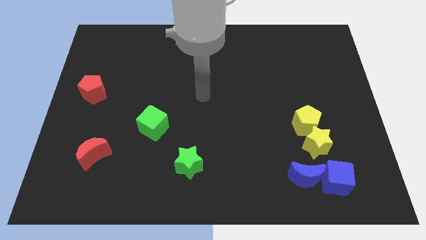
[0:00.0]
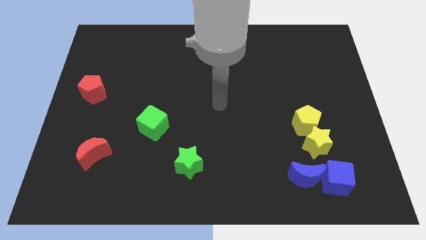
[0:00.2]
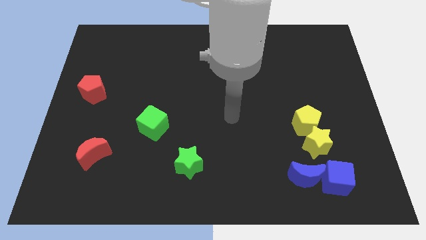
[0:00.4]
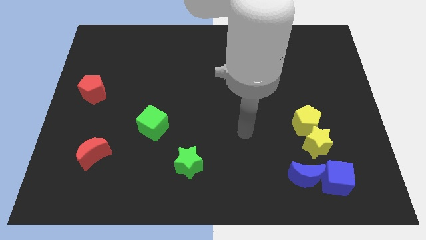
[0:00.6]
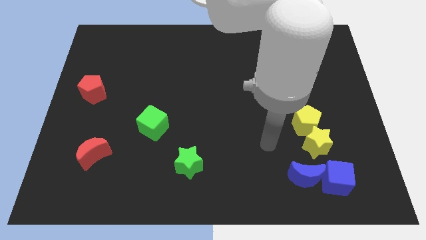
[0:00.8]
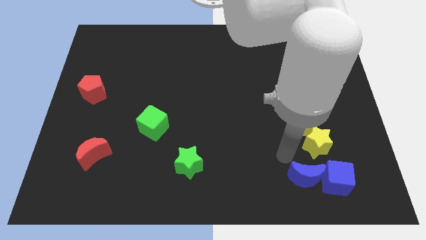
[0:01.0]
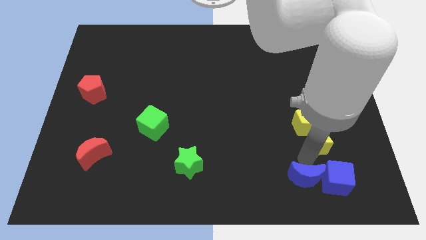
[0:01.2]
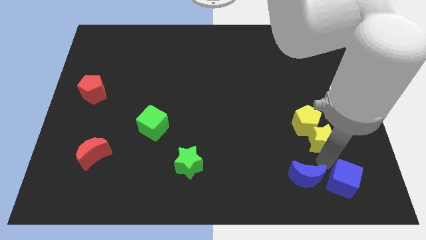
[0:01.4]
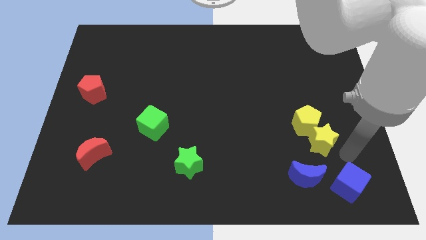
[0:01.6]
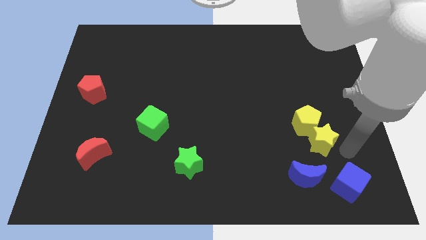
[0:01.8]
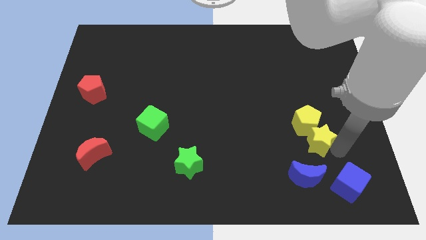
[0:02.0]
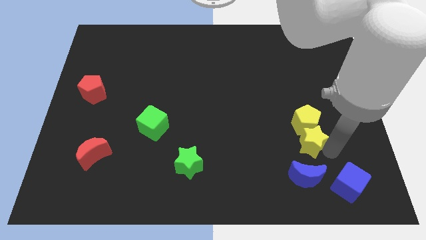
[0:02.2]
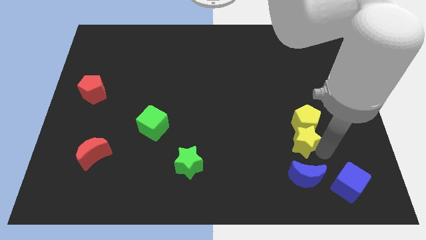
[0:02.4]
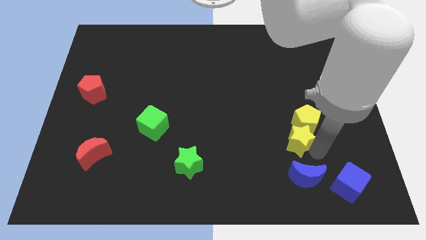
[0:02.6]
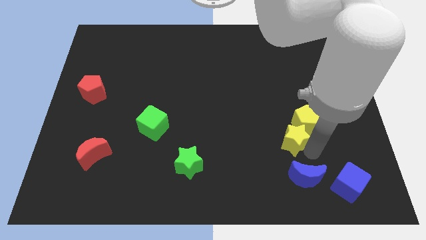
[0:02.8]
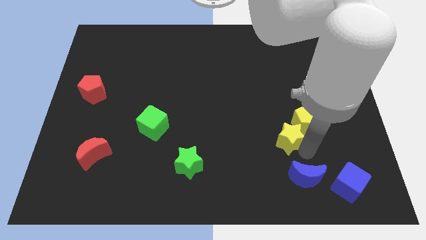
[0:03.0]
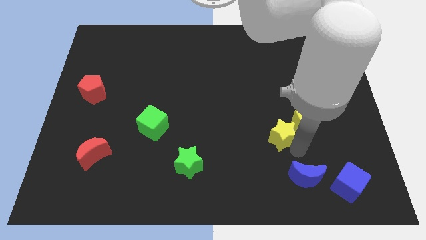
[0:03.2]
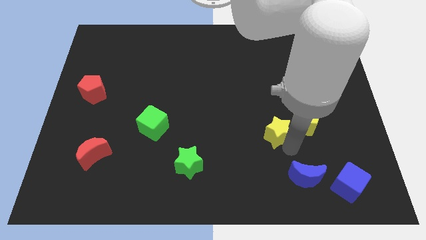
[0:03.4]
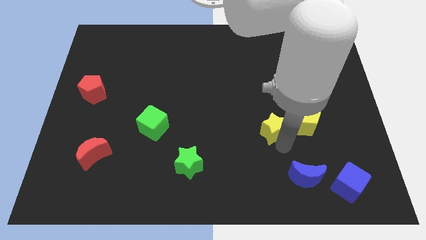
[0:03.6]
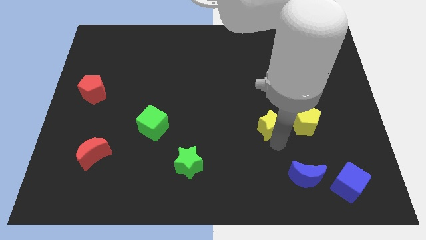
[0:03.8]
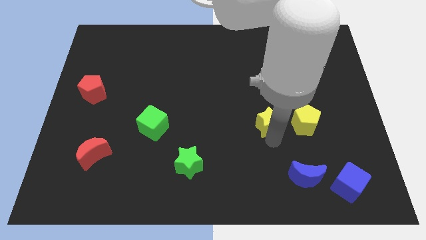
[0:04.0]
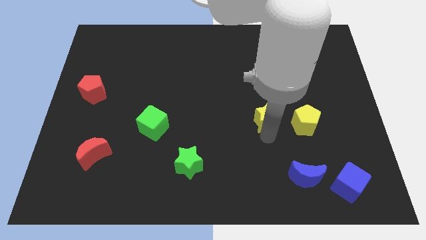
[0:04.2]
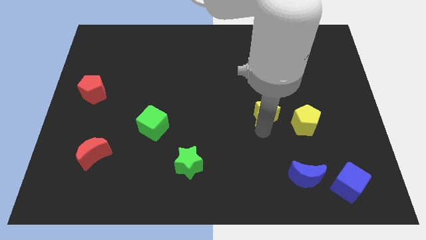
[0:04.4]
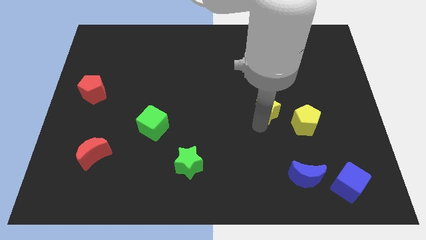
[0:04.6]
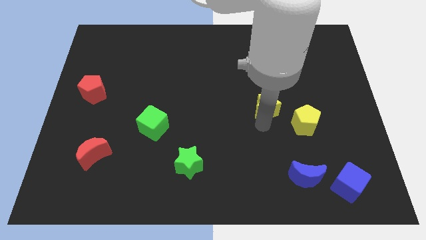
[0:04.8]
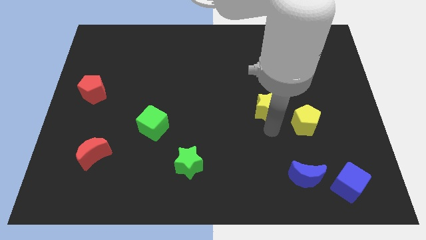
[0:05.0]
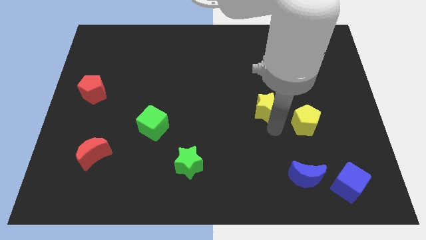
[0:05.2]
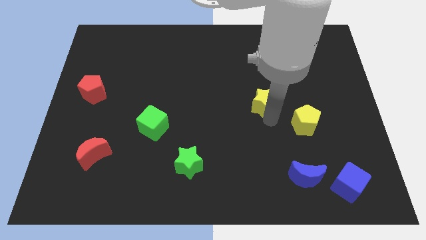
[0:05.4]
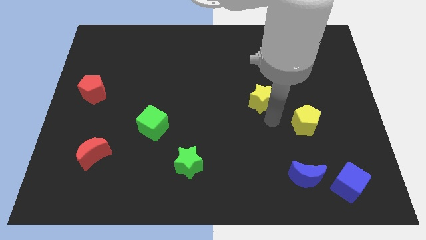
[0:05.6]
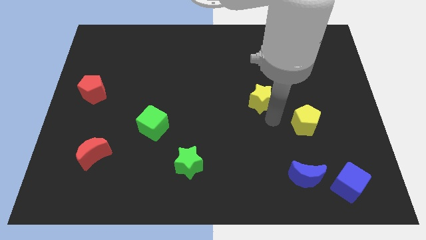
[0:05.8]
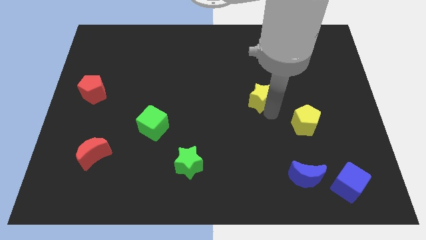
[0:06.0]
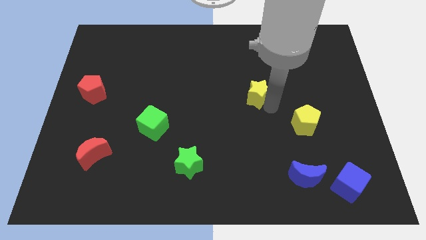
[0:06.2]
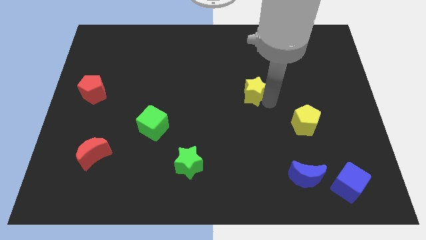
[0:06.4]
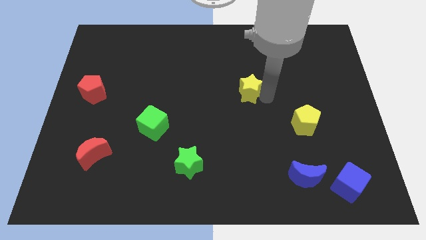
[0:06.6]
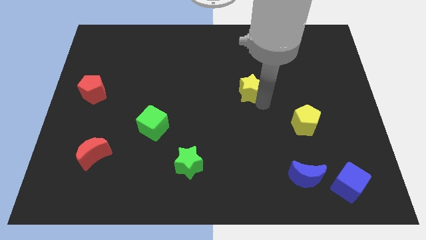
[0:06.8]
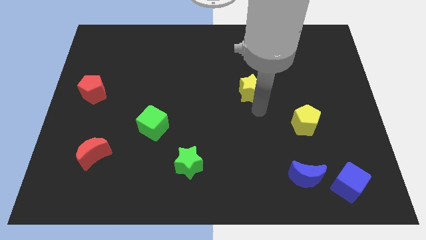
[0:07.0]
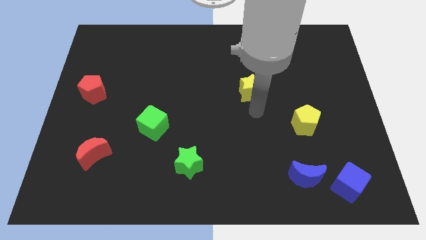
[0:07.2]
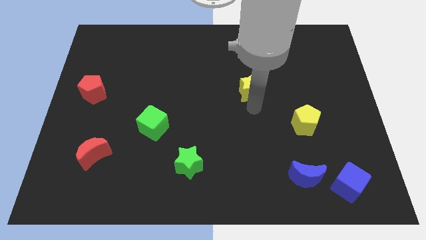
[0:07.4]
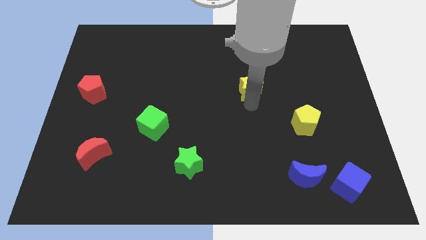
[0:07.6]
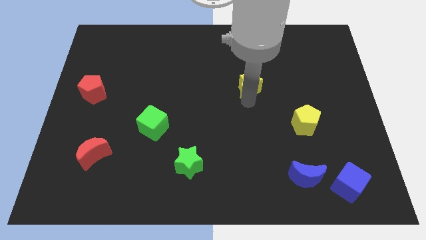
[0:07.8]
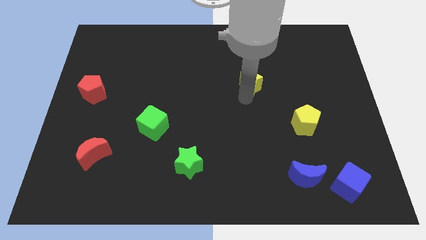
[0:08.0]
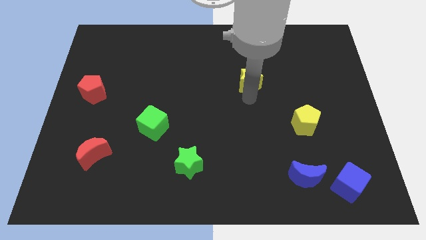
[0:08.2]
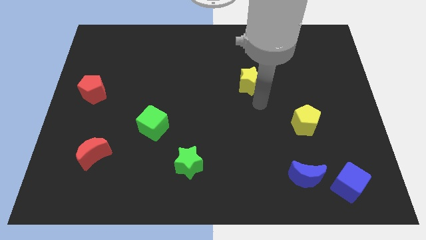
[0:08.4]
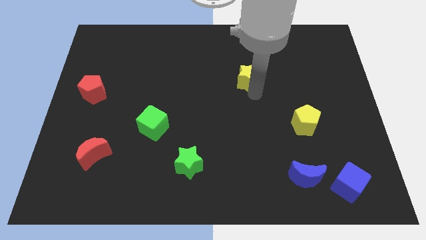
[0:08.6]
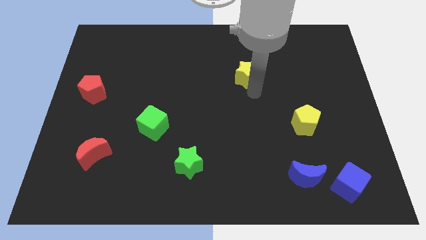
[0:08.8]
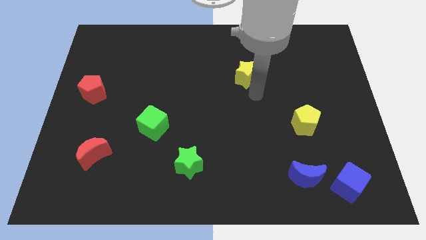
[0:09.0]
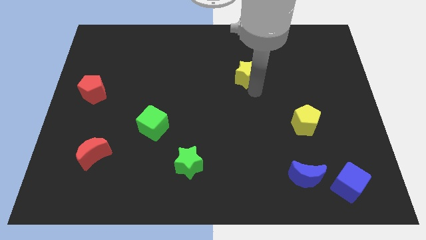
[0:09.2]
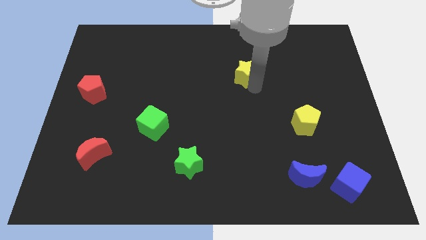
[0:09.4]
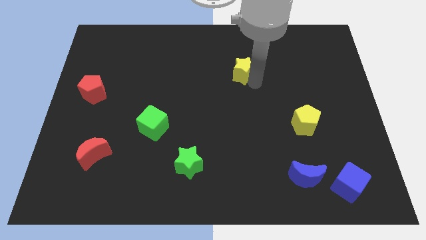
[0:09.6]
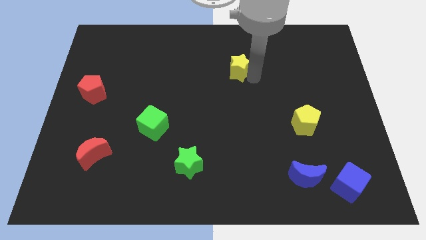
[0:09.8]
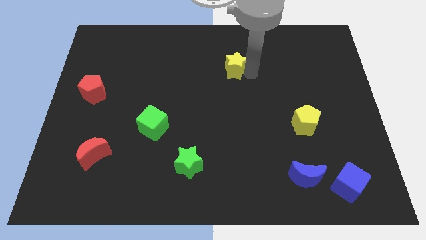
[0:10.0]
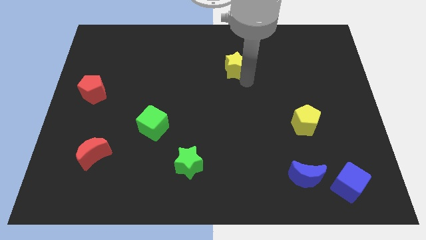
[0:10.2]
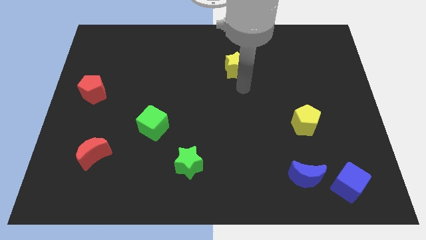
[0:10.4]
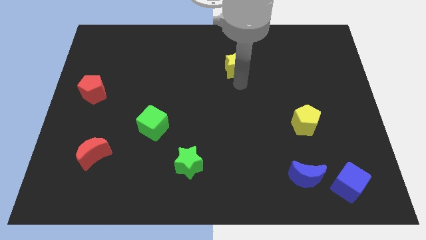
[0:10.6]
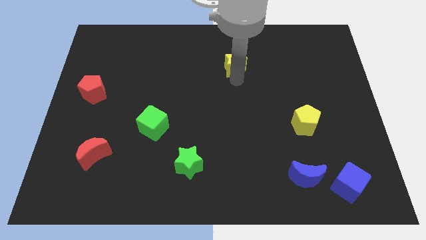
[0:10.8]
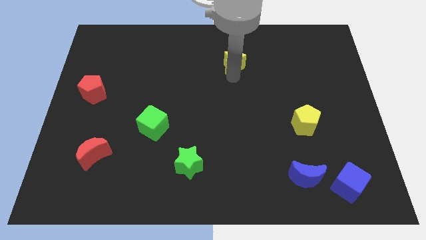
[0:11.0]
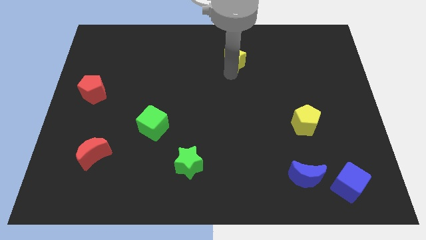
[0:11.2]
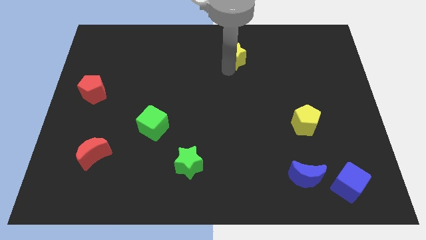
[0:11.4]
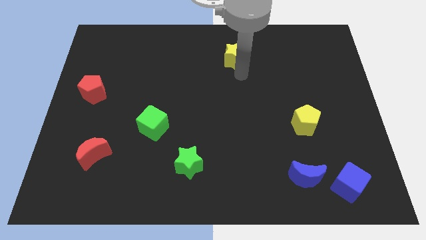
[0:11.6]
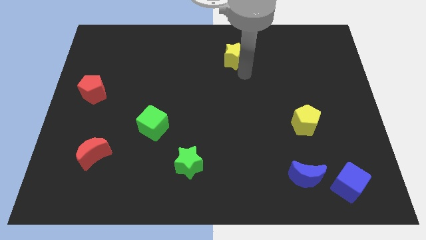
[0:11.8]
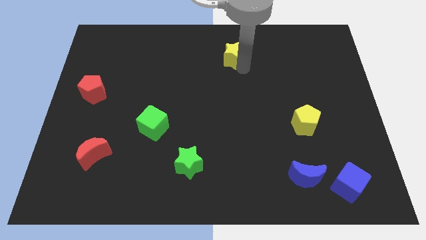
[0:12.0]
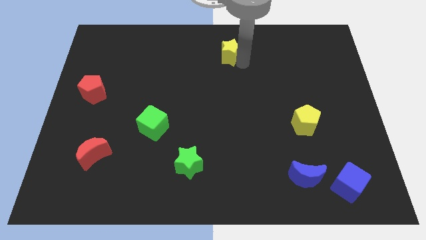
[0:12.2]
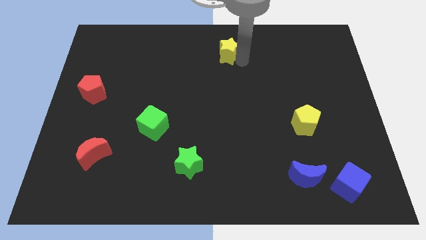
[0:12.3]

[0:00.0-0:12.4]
put the yellow star to the top

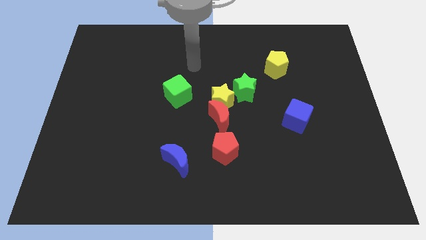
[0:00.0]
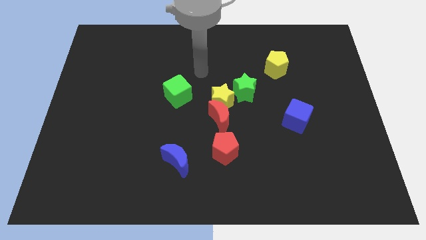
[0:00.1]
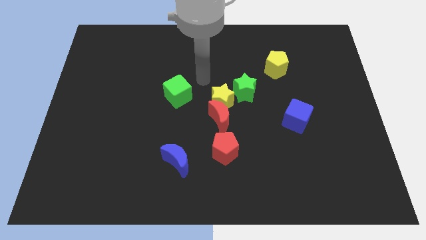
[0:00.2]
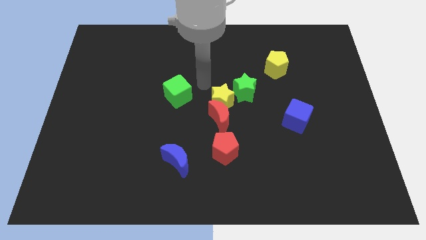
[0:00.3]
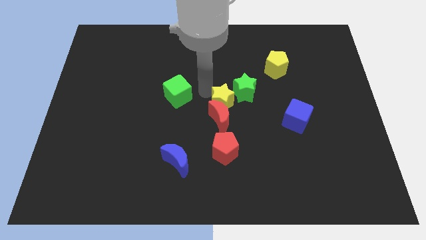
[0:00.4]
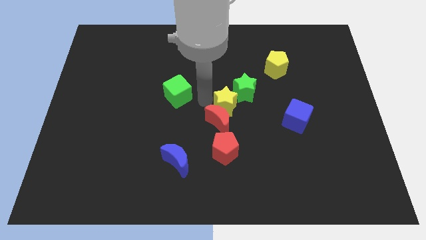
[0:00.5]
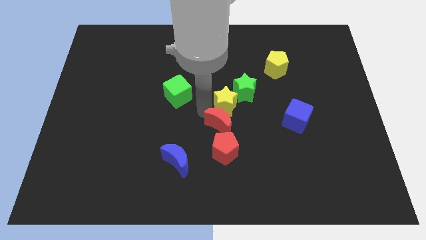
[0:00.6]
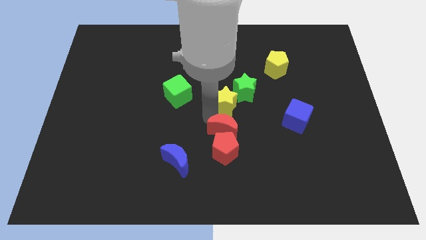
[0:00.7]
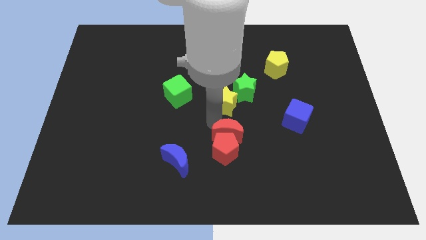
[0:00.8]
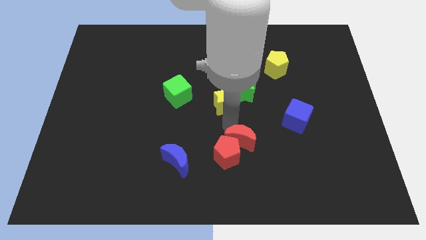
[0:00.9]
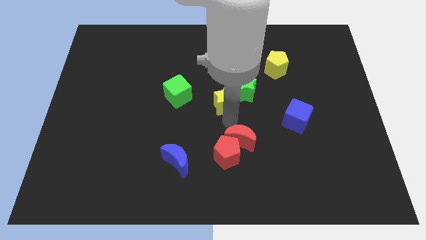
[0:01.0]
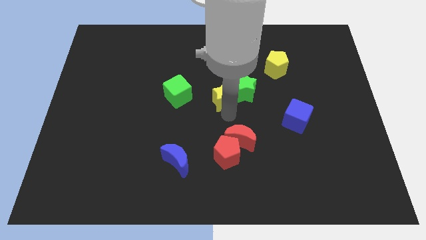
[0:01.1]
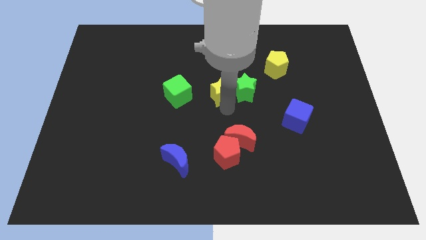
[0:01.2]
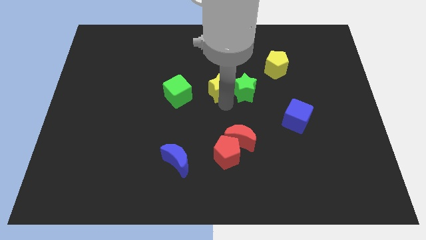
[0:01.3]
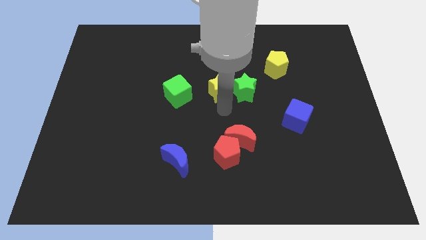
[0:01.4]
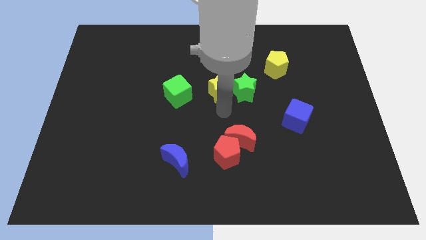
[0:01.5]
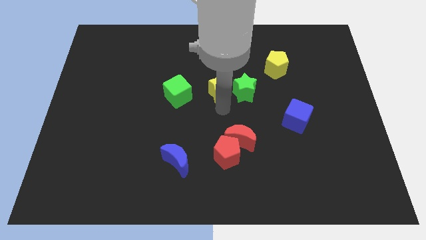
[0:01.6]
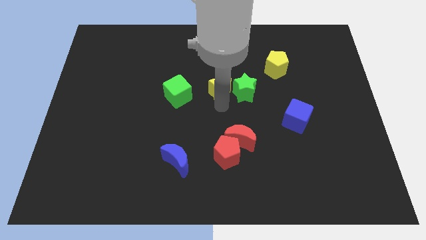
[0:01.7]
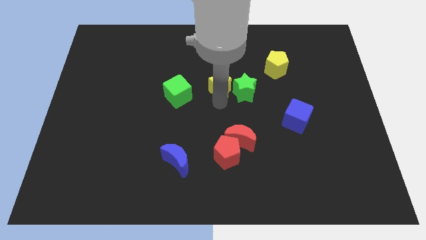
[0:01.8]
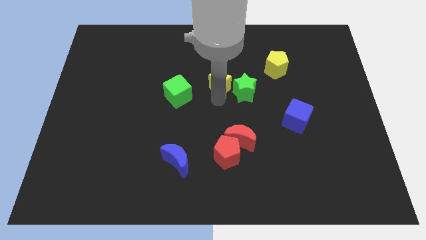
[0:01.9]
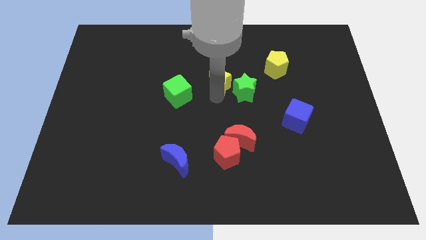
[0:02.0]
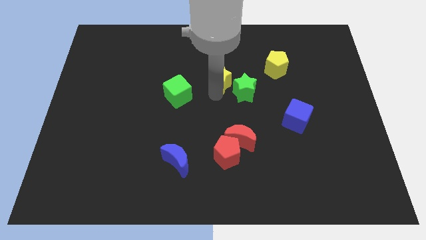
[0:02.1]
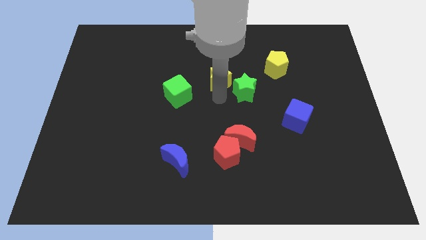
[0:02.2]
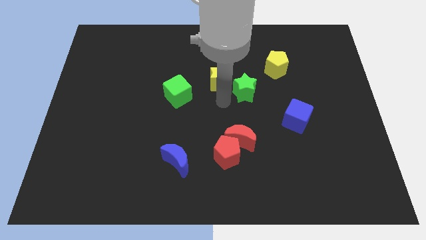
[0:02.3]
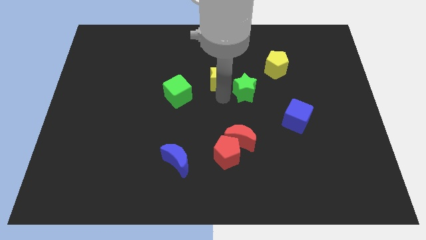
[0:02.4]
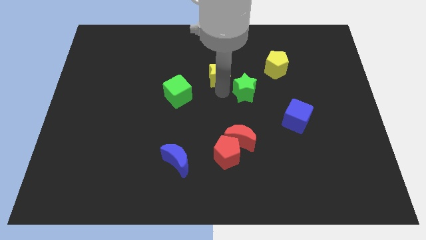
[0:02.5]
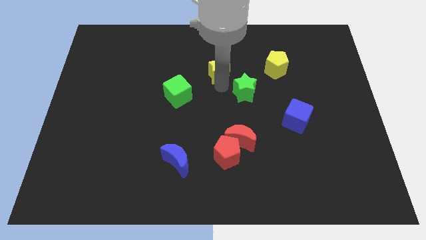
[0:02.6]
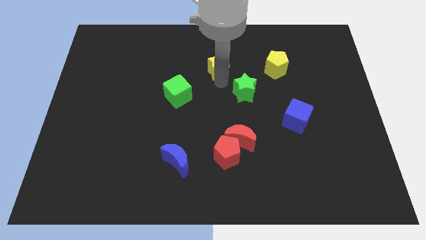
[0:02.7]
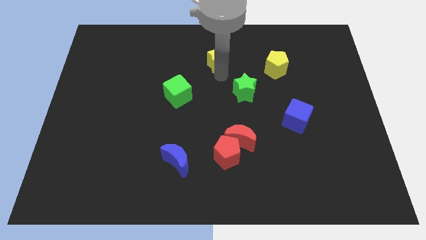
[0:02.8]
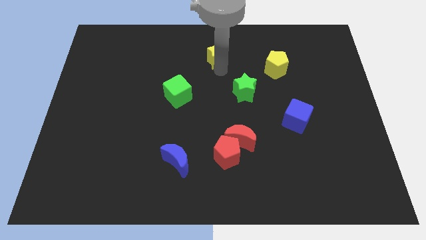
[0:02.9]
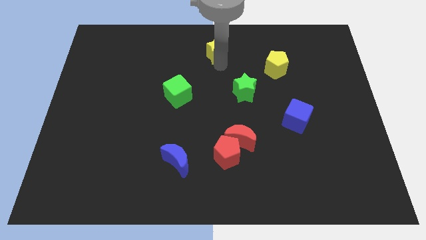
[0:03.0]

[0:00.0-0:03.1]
move the yellow star to the towards your base
